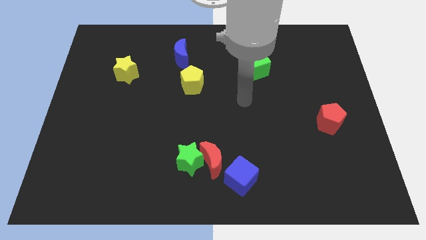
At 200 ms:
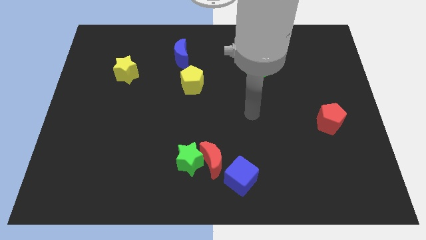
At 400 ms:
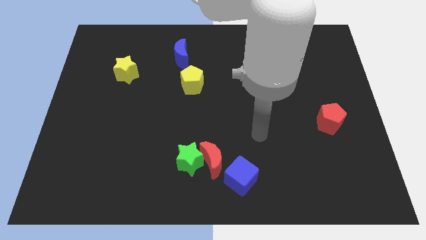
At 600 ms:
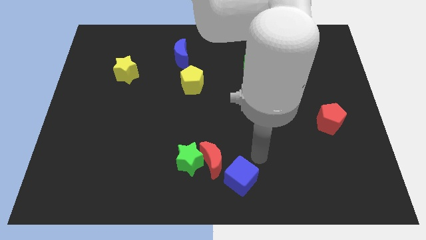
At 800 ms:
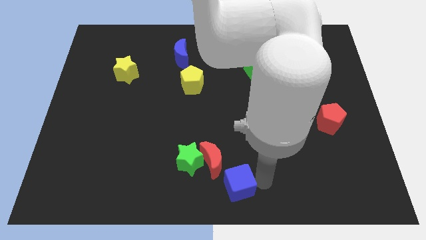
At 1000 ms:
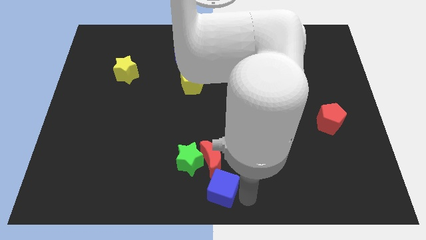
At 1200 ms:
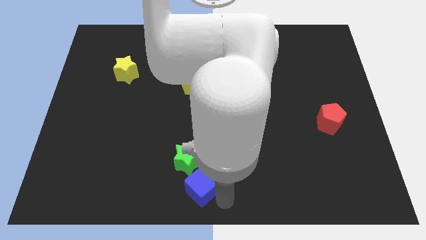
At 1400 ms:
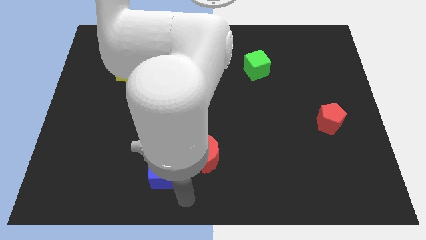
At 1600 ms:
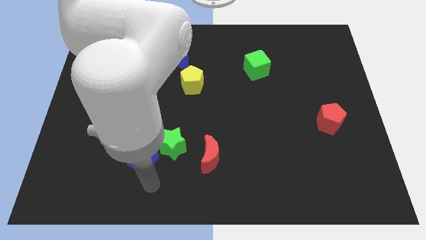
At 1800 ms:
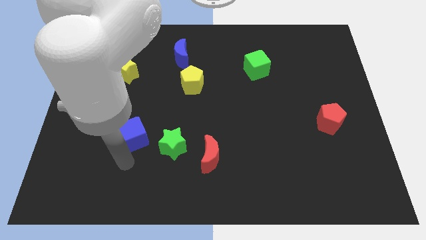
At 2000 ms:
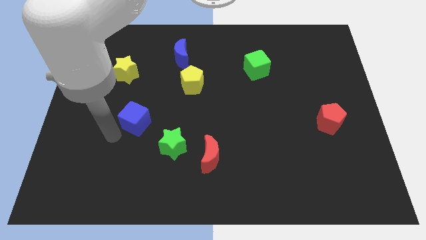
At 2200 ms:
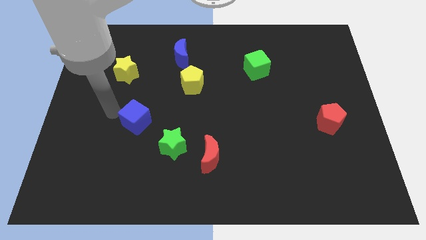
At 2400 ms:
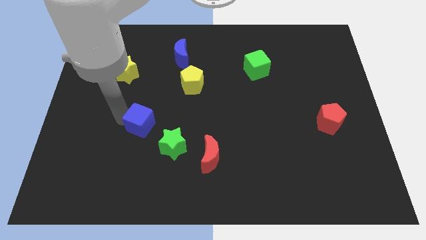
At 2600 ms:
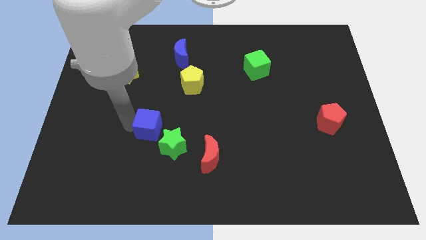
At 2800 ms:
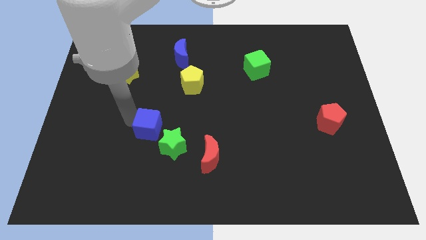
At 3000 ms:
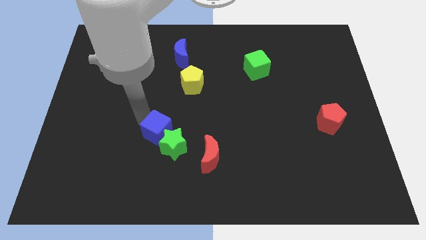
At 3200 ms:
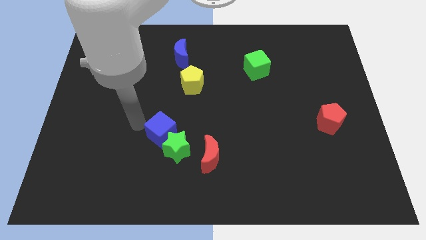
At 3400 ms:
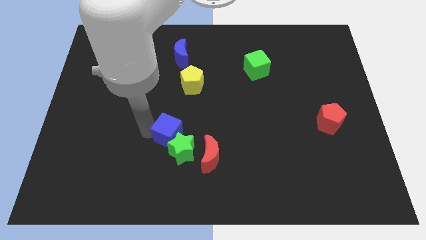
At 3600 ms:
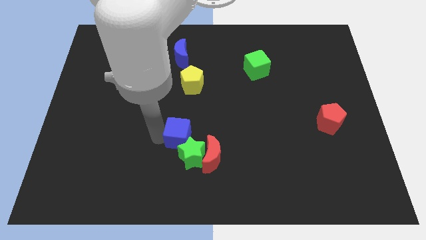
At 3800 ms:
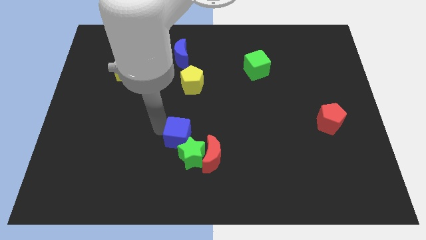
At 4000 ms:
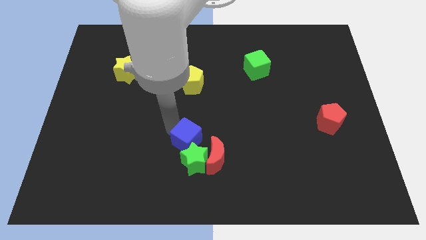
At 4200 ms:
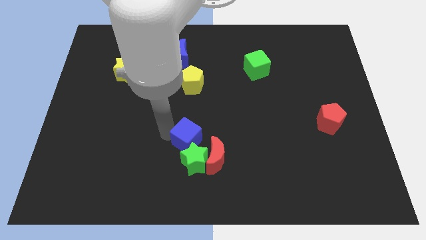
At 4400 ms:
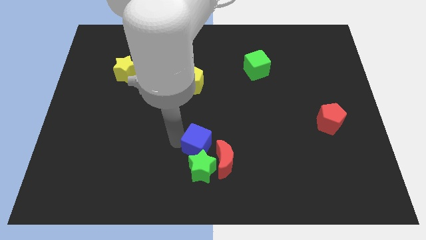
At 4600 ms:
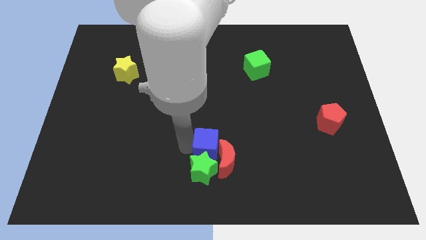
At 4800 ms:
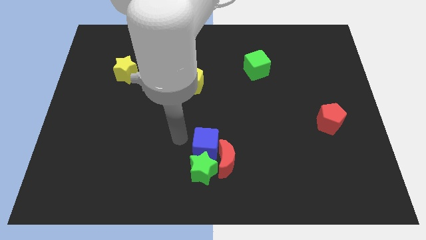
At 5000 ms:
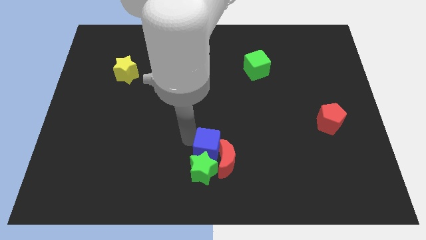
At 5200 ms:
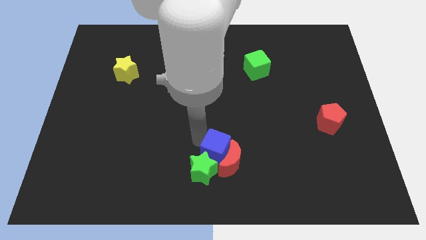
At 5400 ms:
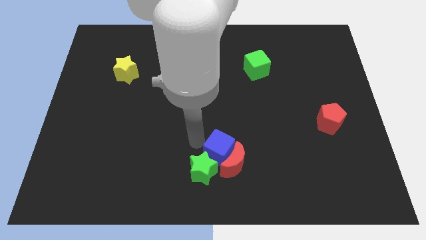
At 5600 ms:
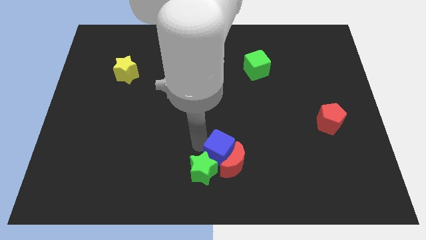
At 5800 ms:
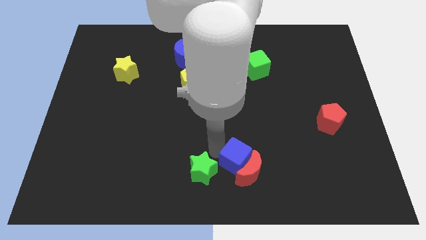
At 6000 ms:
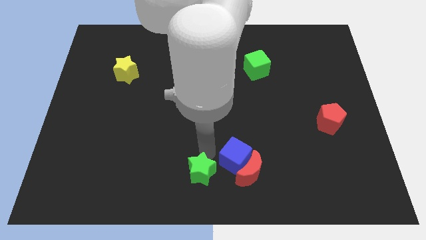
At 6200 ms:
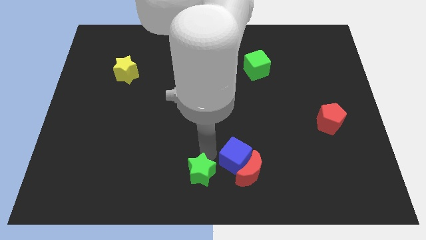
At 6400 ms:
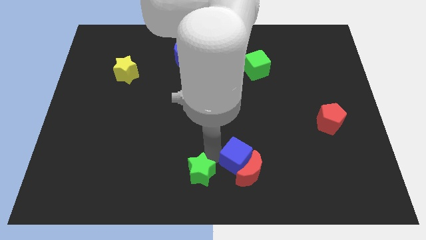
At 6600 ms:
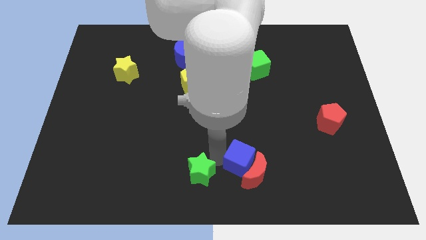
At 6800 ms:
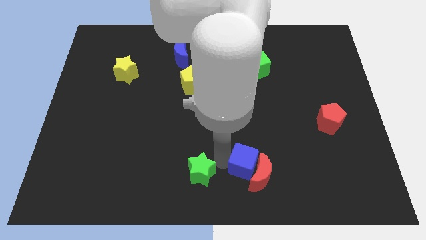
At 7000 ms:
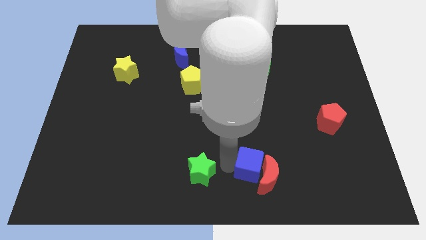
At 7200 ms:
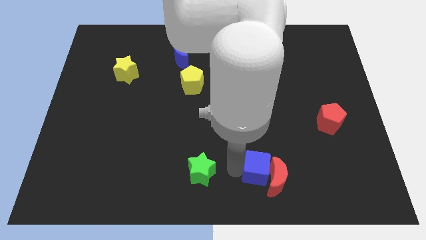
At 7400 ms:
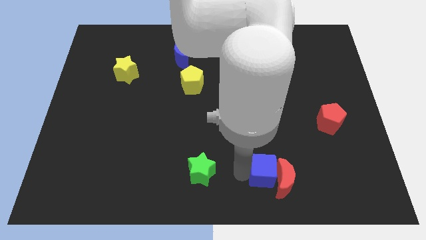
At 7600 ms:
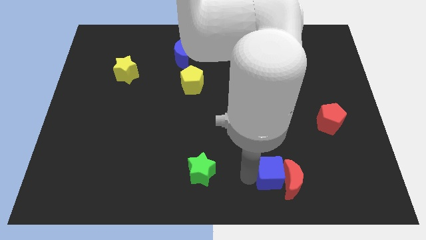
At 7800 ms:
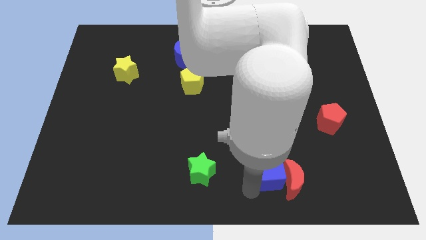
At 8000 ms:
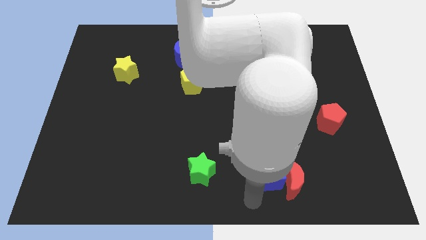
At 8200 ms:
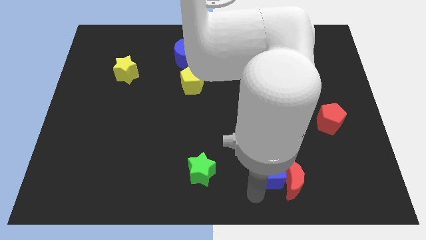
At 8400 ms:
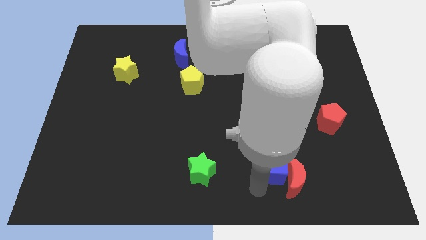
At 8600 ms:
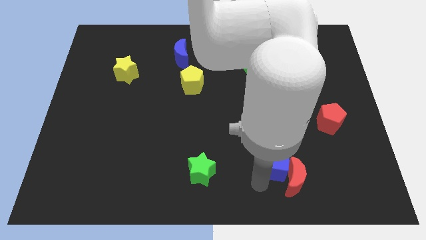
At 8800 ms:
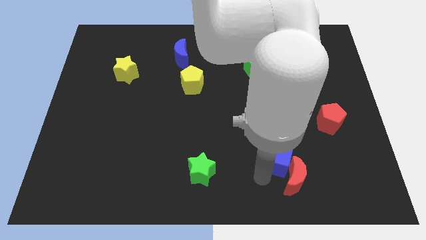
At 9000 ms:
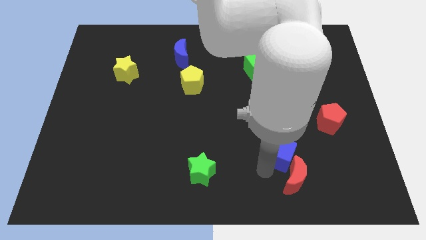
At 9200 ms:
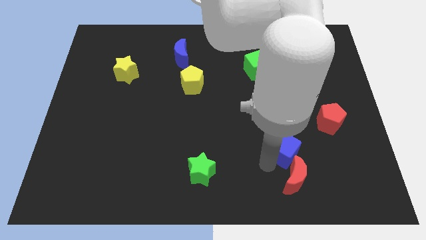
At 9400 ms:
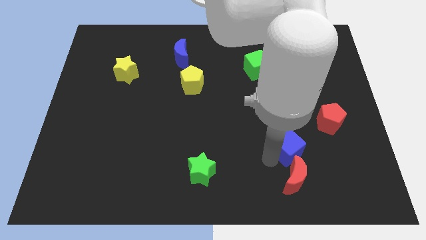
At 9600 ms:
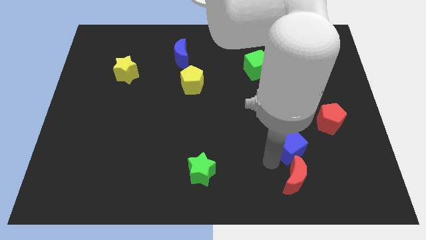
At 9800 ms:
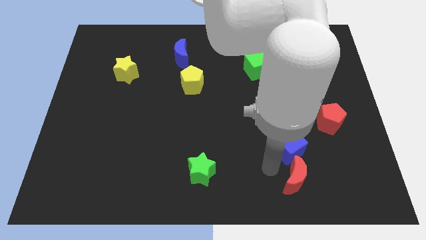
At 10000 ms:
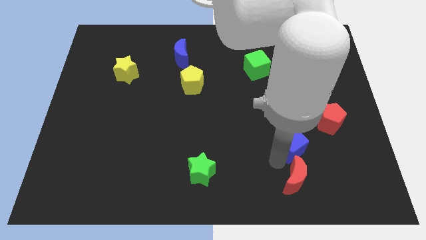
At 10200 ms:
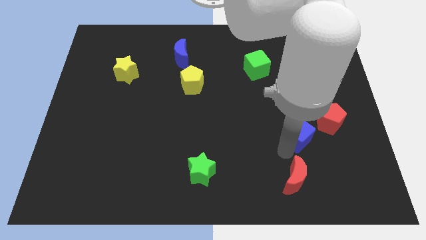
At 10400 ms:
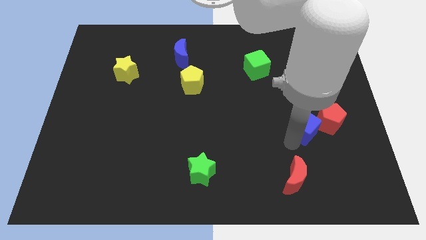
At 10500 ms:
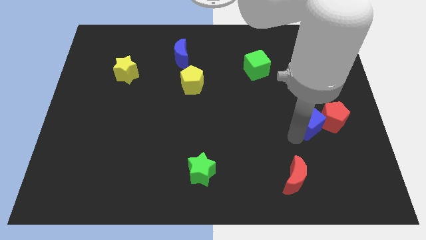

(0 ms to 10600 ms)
slide the blue cube next to the red pentagon

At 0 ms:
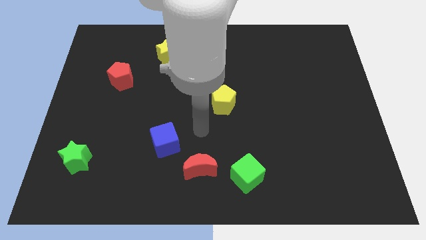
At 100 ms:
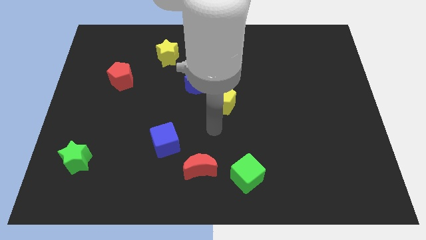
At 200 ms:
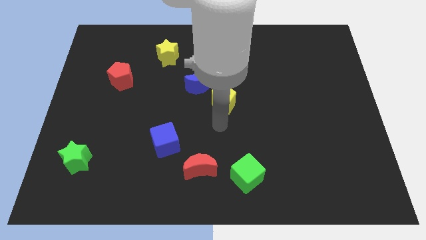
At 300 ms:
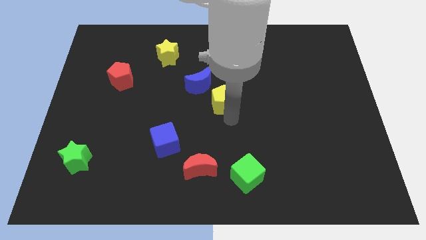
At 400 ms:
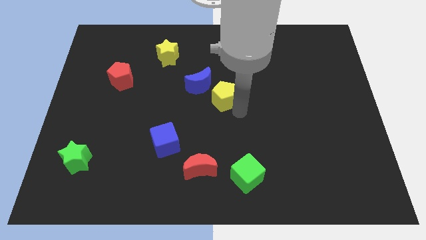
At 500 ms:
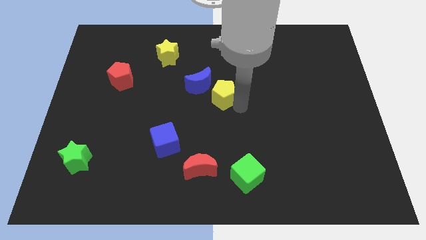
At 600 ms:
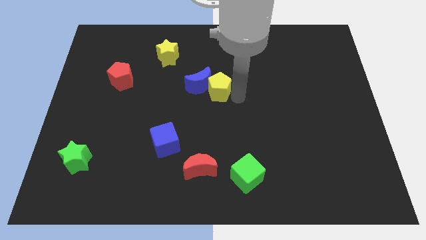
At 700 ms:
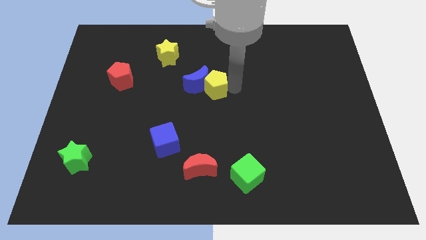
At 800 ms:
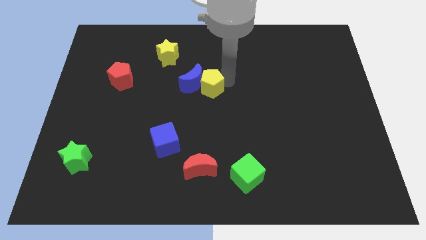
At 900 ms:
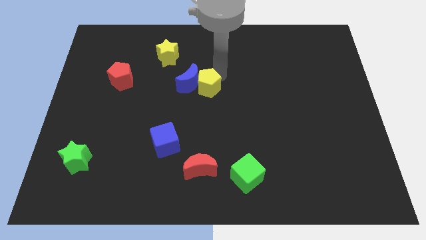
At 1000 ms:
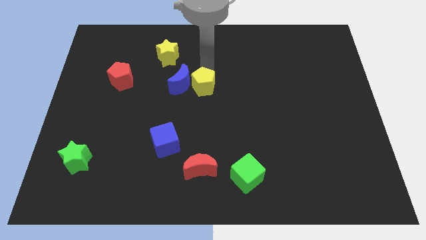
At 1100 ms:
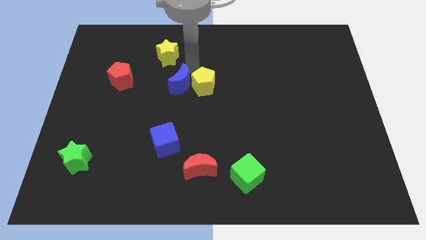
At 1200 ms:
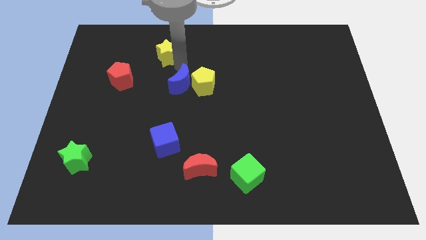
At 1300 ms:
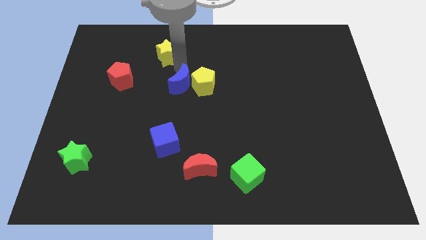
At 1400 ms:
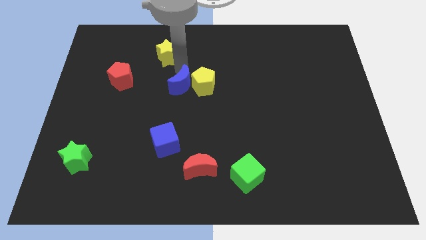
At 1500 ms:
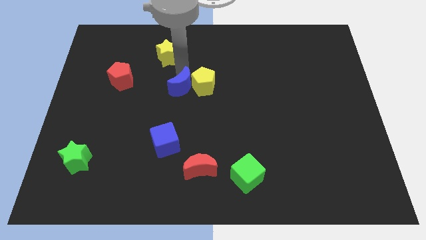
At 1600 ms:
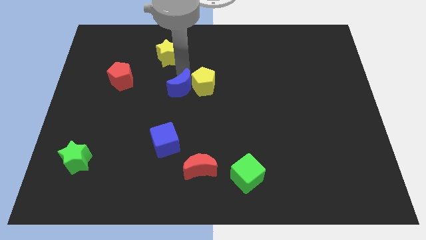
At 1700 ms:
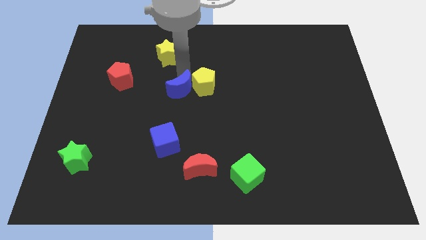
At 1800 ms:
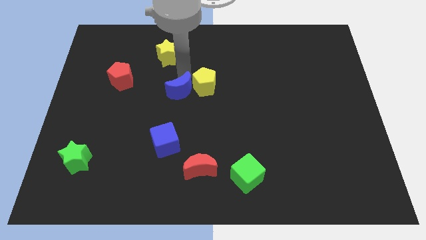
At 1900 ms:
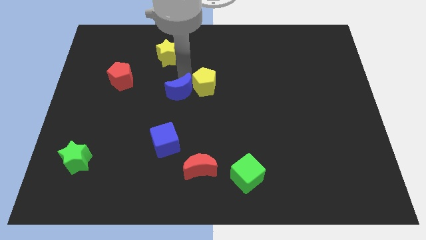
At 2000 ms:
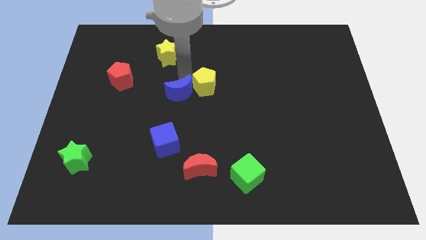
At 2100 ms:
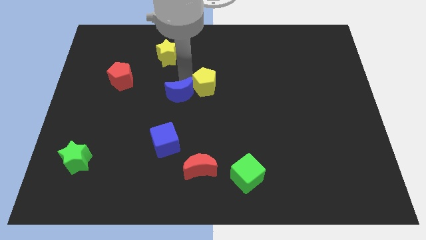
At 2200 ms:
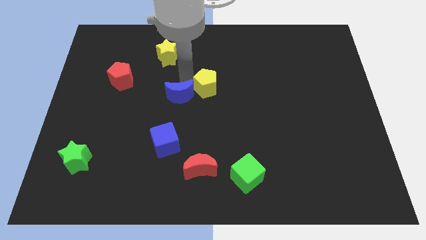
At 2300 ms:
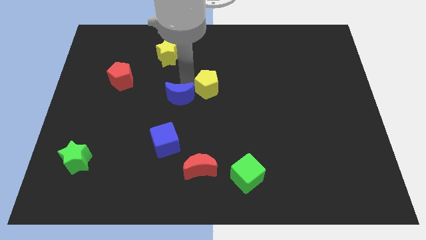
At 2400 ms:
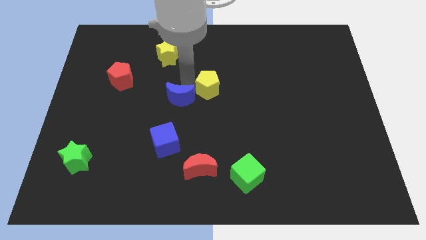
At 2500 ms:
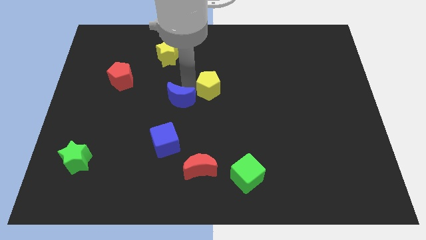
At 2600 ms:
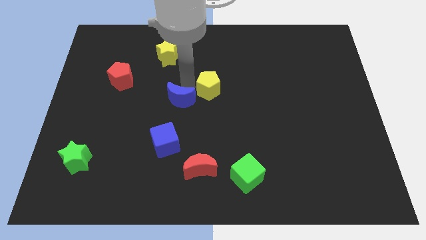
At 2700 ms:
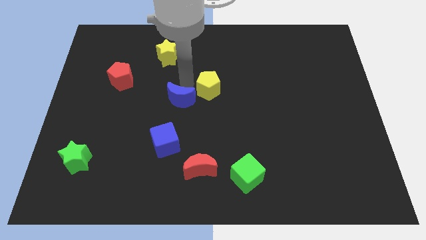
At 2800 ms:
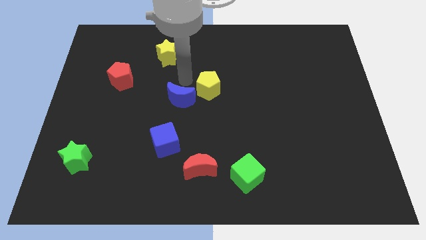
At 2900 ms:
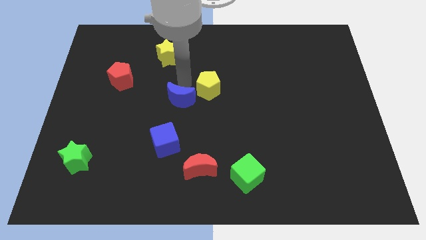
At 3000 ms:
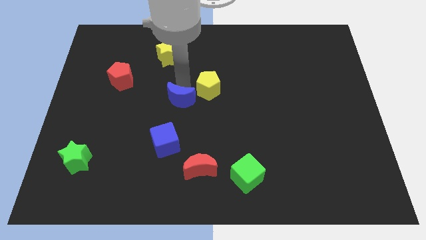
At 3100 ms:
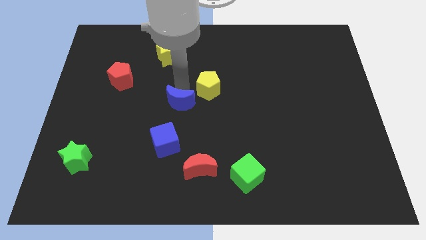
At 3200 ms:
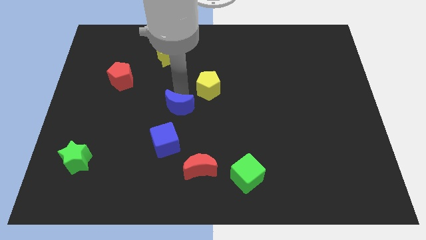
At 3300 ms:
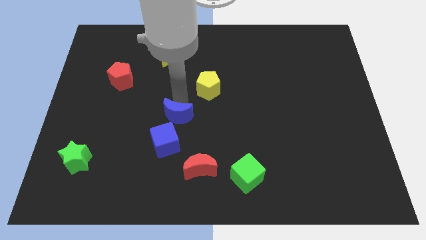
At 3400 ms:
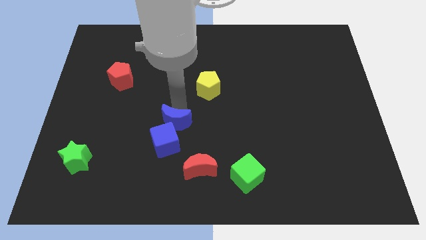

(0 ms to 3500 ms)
put the blue moon to the blue cube

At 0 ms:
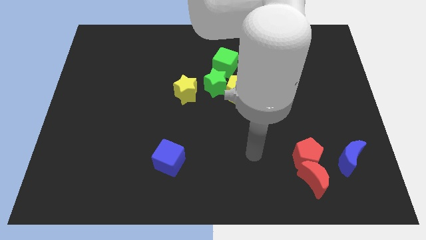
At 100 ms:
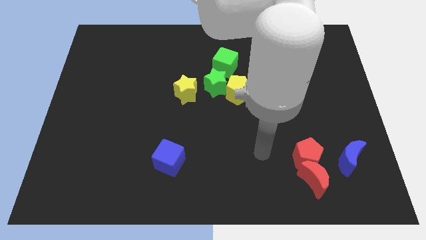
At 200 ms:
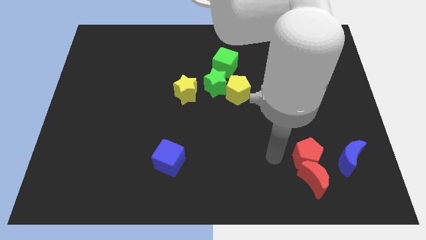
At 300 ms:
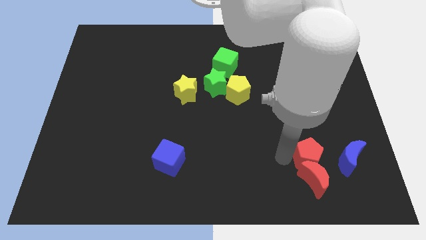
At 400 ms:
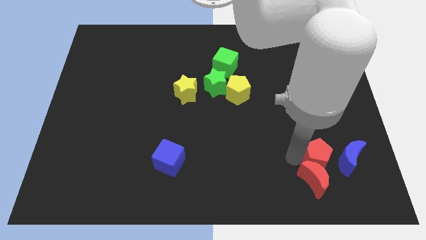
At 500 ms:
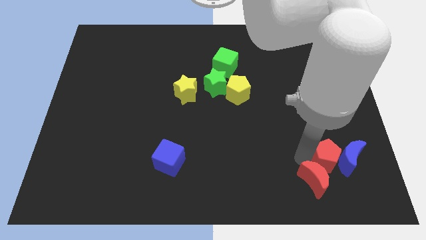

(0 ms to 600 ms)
push the red pentagon to the blue moon
